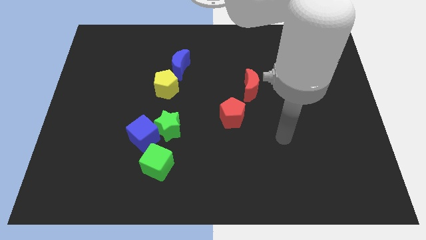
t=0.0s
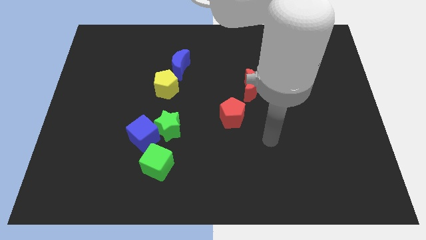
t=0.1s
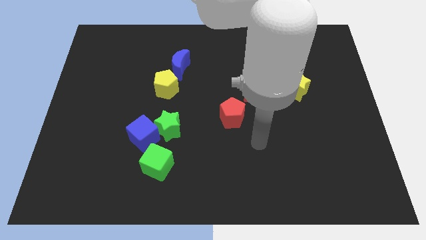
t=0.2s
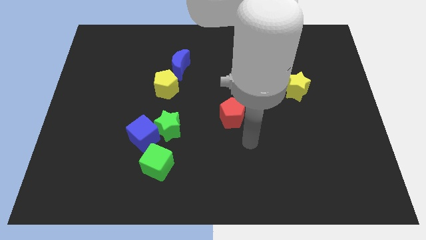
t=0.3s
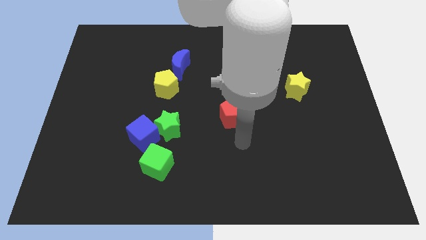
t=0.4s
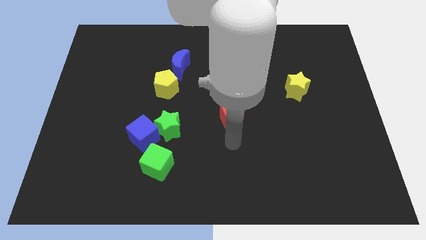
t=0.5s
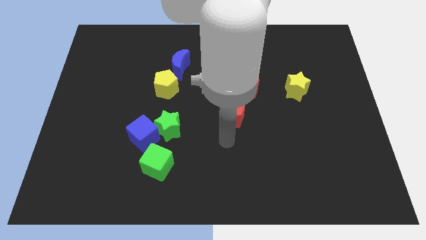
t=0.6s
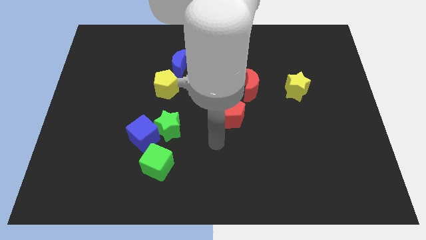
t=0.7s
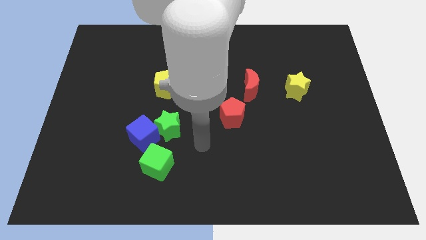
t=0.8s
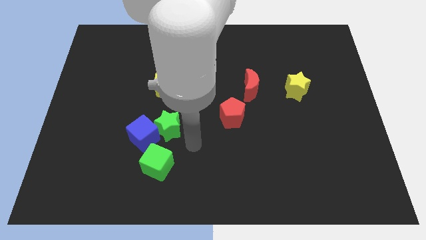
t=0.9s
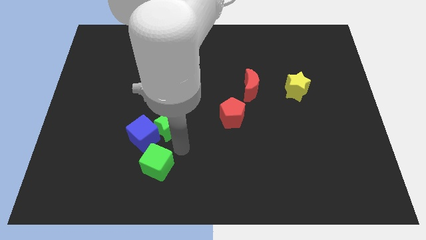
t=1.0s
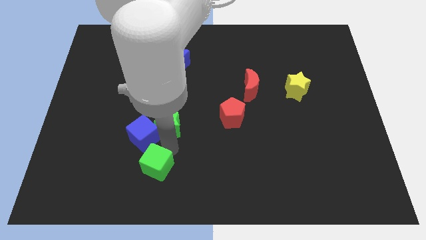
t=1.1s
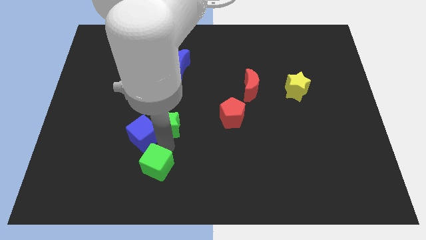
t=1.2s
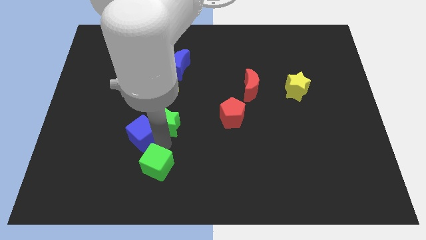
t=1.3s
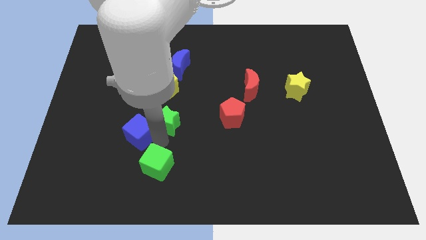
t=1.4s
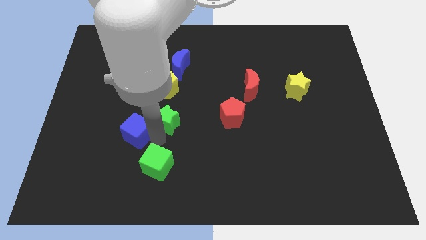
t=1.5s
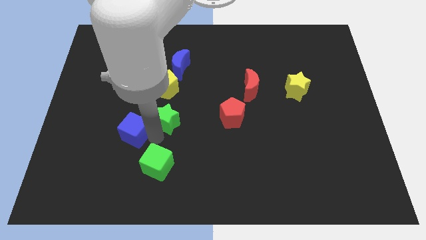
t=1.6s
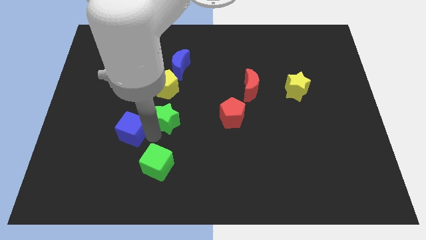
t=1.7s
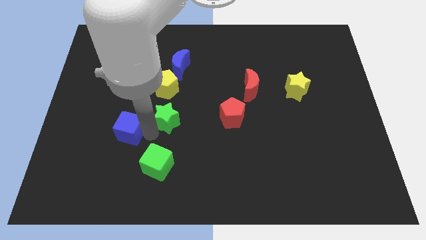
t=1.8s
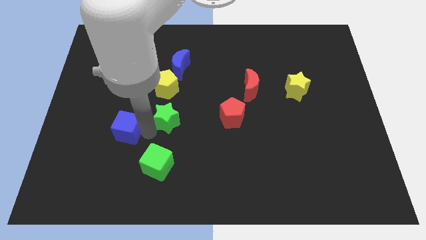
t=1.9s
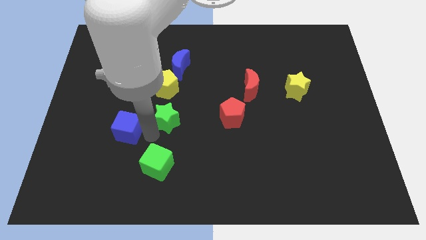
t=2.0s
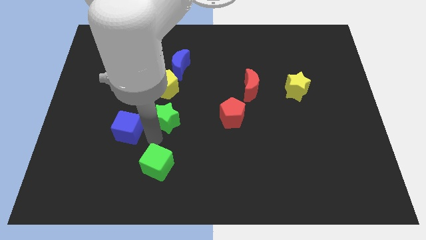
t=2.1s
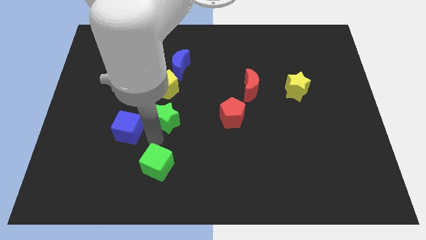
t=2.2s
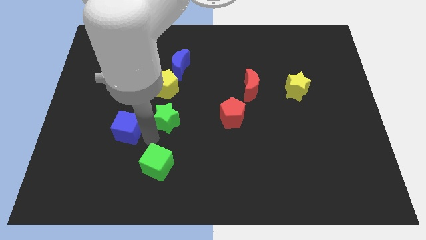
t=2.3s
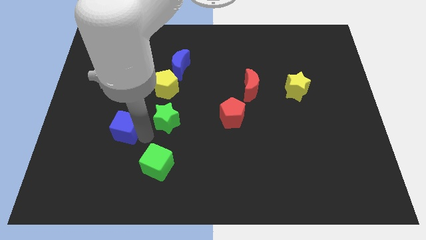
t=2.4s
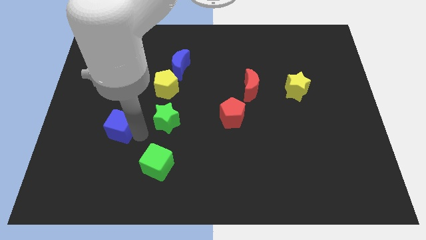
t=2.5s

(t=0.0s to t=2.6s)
separate the blue cube from the green star and green cube

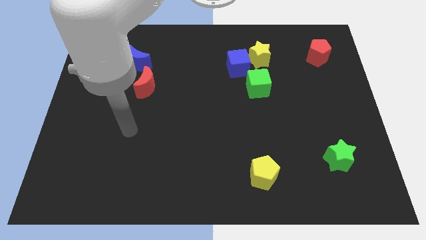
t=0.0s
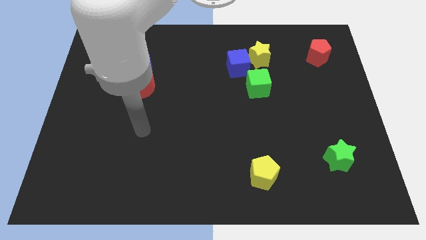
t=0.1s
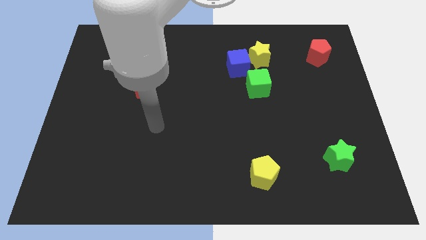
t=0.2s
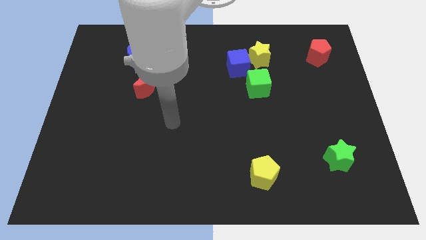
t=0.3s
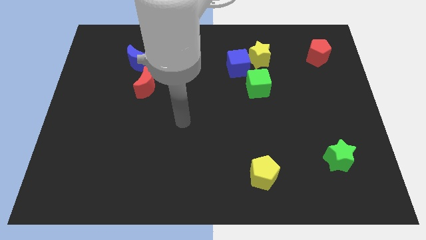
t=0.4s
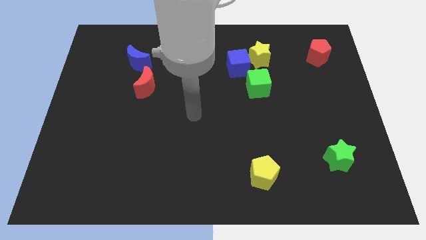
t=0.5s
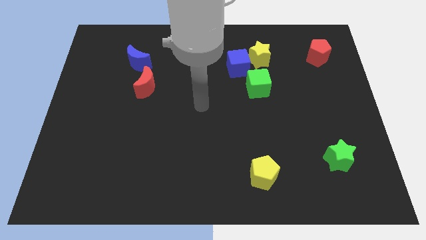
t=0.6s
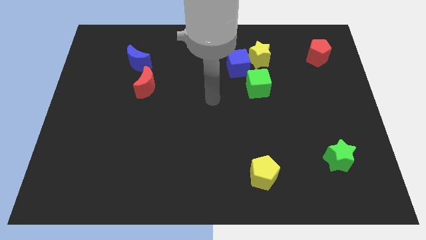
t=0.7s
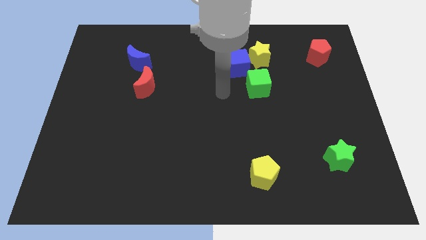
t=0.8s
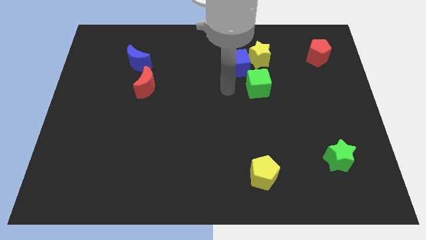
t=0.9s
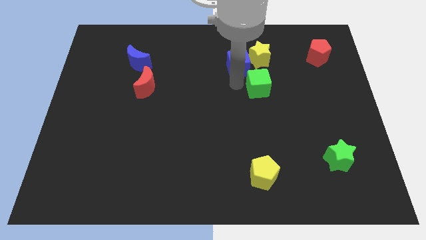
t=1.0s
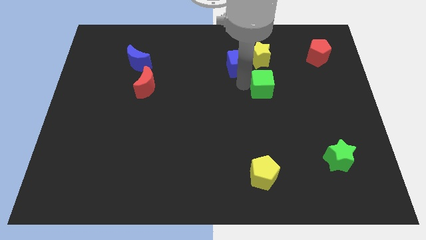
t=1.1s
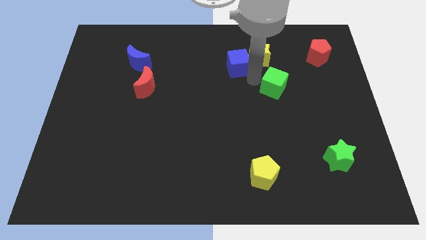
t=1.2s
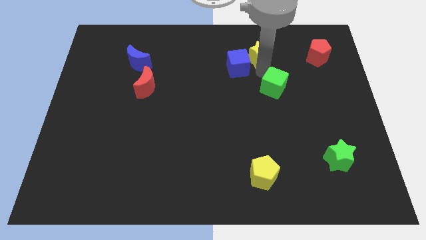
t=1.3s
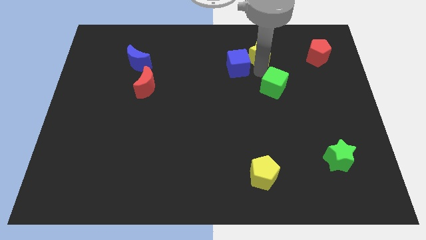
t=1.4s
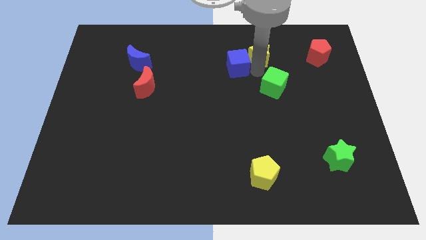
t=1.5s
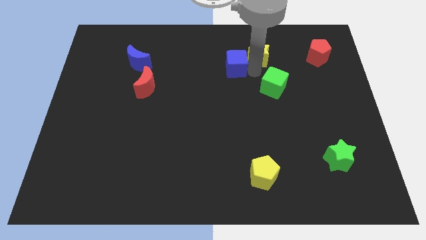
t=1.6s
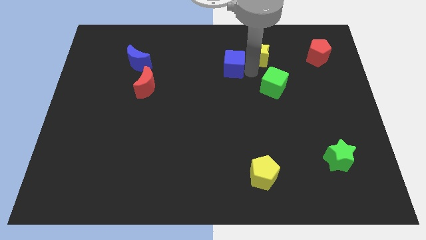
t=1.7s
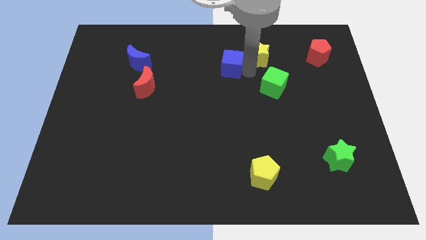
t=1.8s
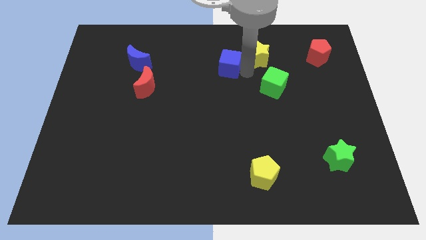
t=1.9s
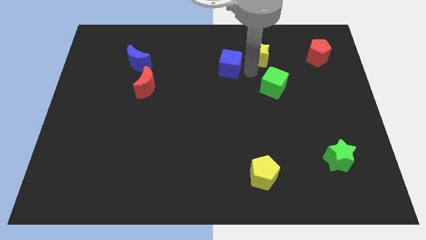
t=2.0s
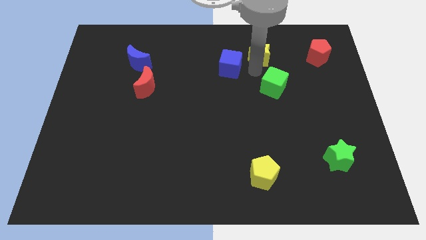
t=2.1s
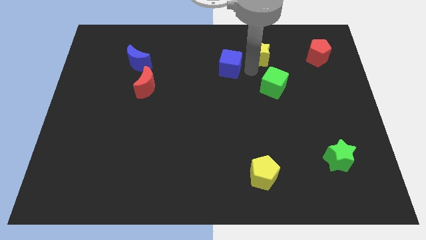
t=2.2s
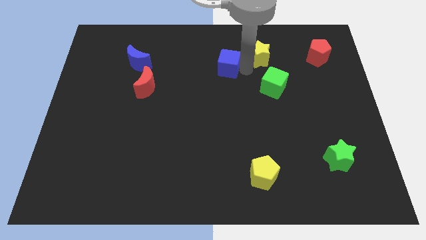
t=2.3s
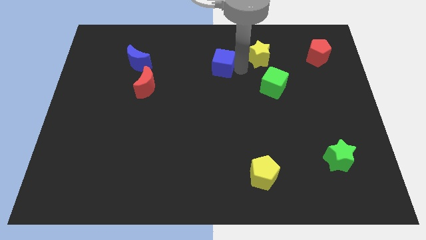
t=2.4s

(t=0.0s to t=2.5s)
pull the blue cube apart from the yellow star and green cube

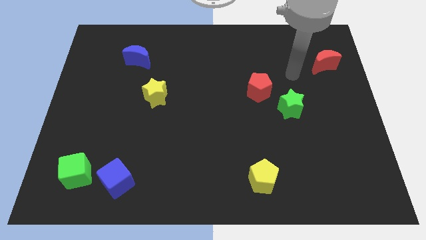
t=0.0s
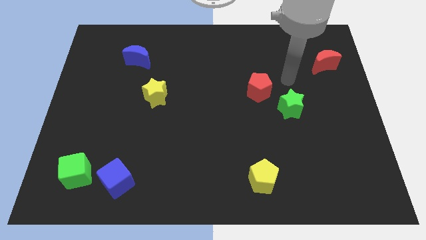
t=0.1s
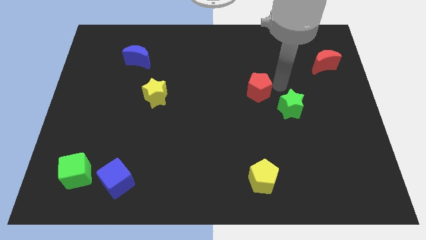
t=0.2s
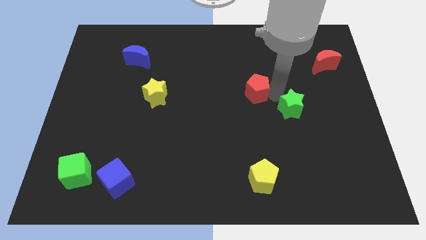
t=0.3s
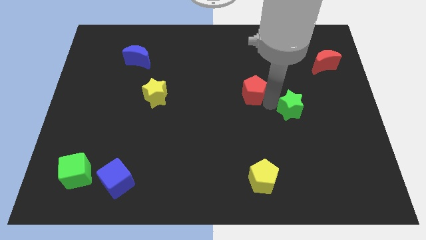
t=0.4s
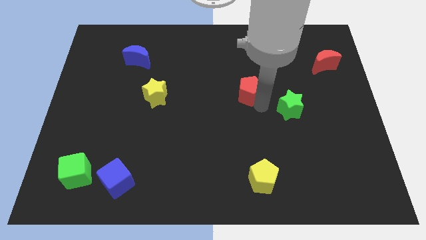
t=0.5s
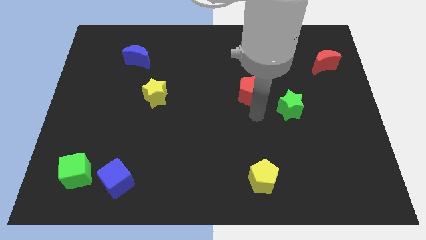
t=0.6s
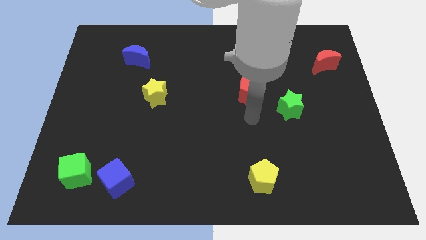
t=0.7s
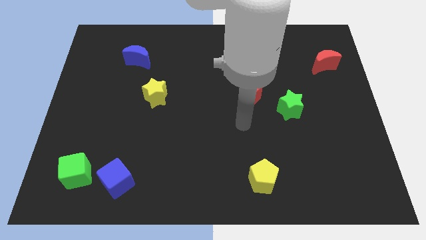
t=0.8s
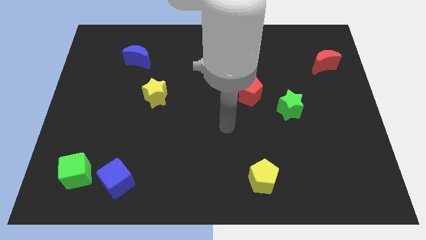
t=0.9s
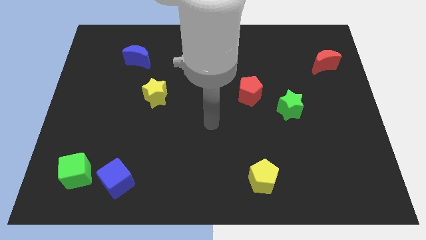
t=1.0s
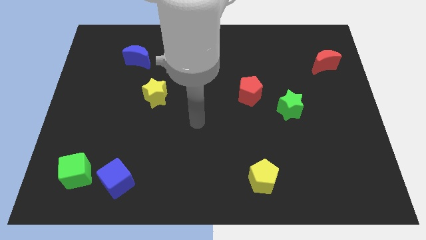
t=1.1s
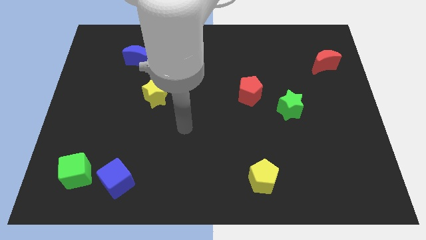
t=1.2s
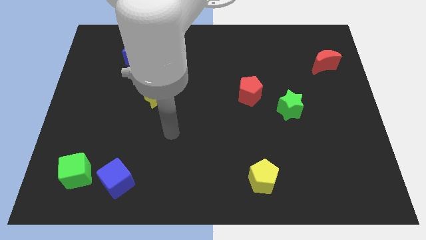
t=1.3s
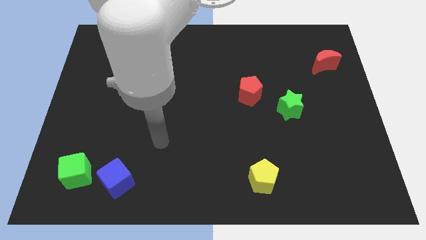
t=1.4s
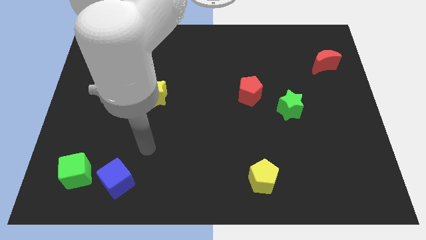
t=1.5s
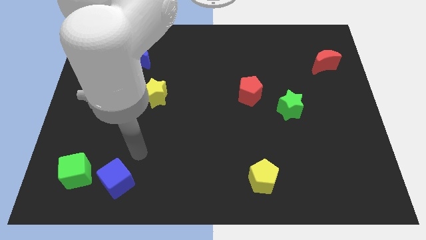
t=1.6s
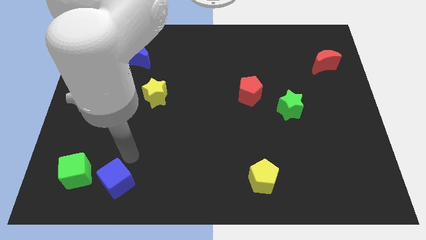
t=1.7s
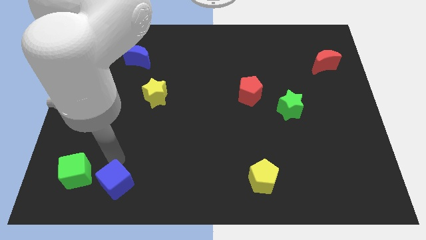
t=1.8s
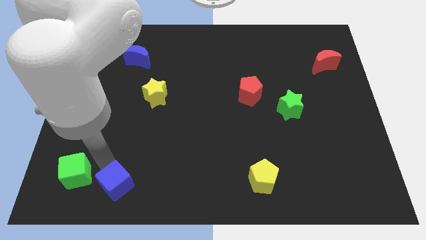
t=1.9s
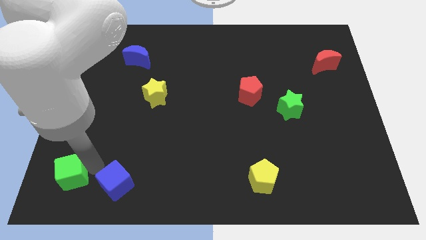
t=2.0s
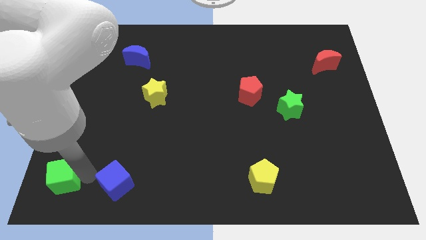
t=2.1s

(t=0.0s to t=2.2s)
pull the blue cube apart from the green cube

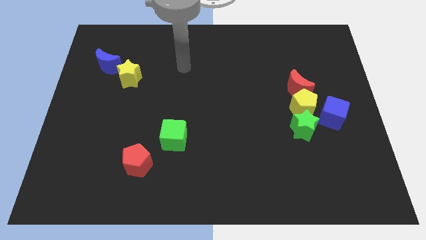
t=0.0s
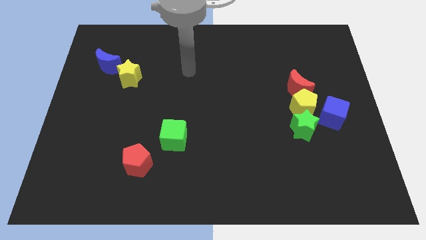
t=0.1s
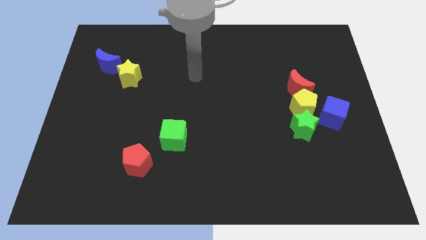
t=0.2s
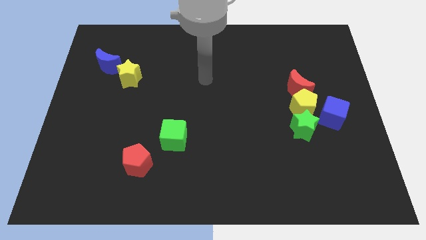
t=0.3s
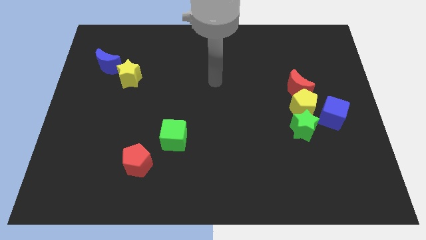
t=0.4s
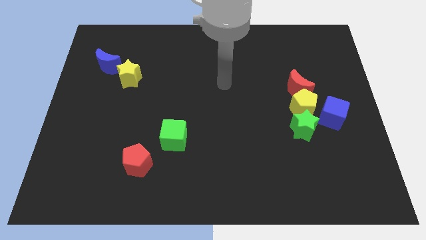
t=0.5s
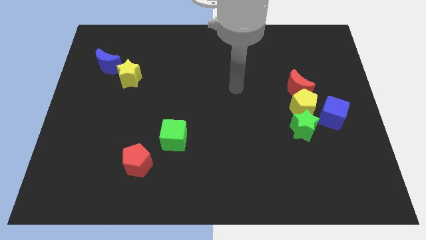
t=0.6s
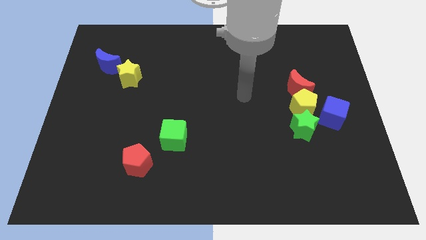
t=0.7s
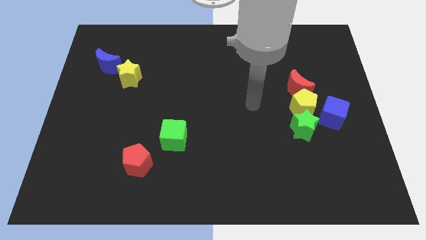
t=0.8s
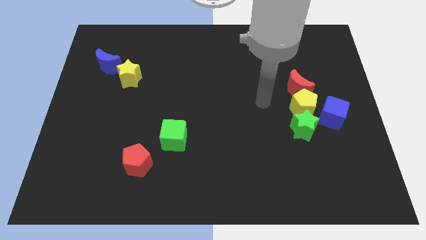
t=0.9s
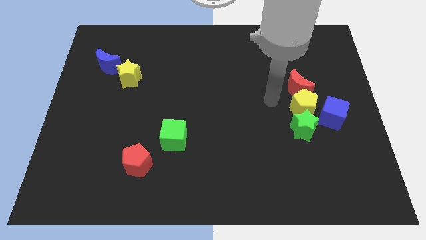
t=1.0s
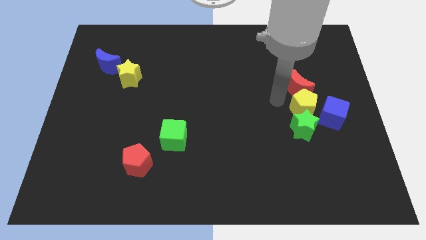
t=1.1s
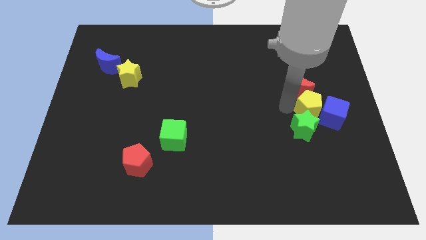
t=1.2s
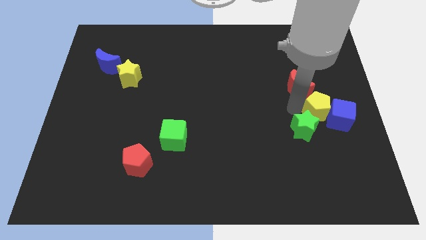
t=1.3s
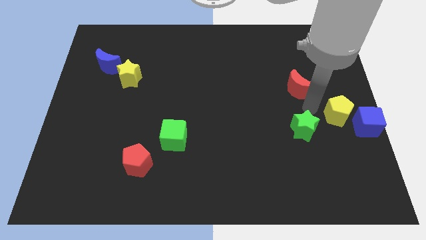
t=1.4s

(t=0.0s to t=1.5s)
separate the red moon from the yellow pentagon

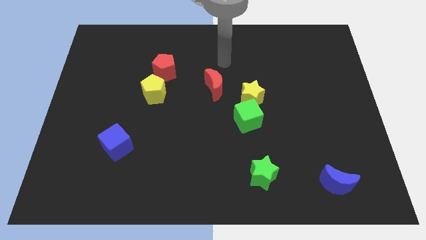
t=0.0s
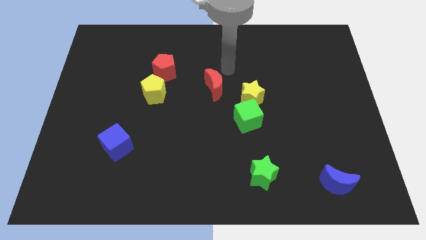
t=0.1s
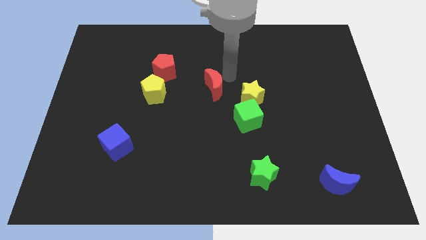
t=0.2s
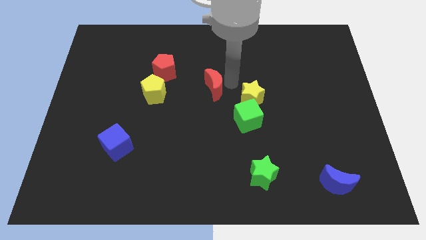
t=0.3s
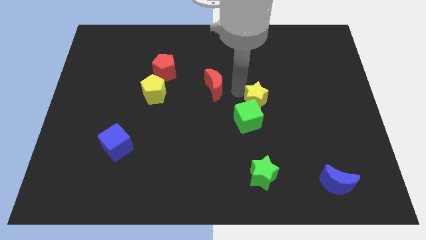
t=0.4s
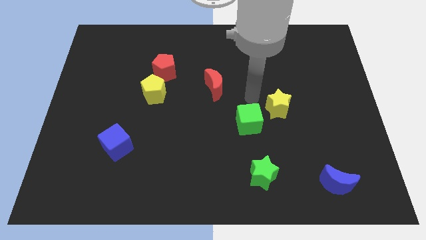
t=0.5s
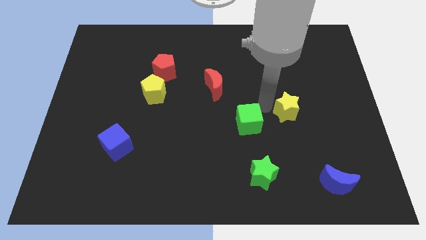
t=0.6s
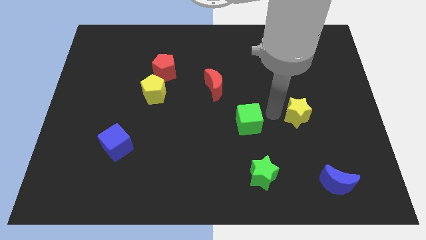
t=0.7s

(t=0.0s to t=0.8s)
separate the green cube from the yellow star
